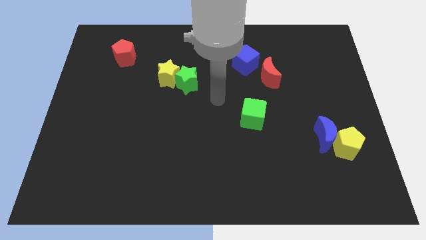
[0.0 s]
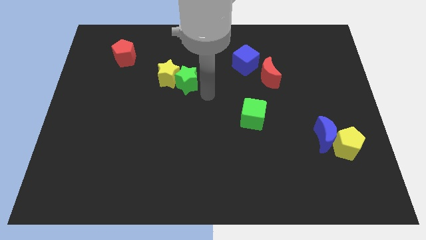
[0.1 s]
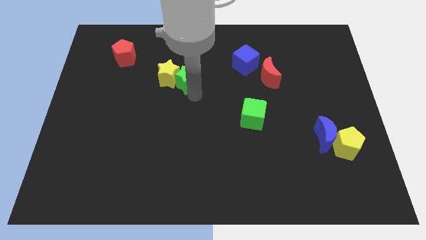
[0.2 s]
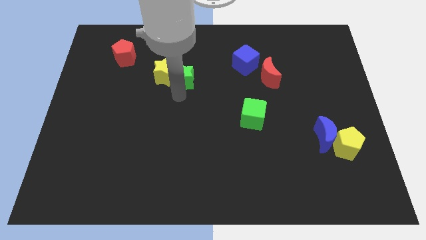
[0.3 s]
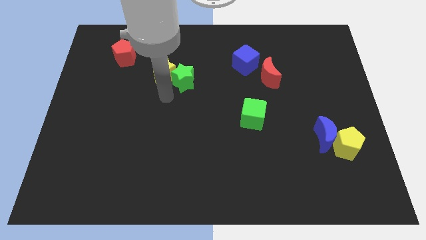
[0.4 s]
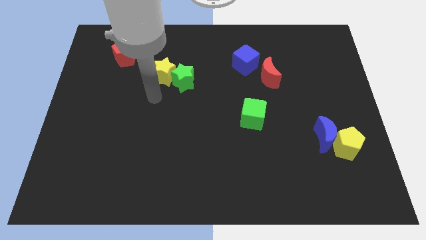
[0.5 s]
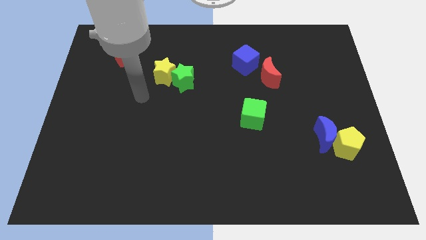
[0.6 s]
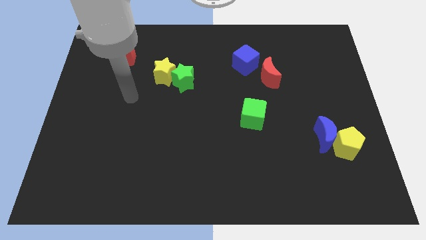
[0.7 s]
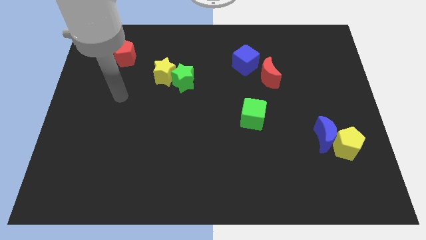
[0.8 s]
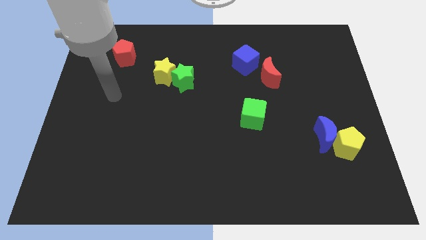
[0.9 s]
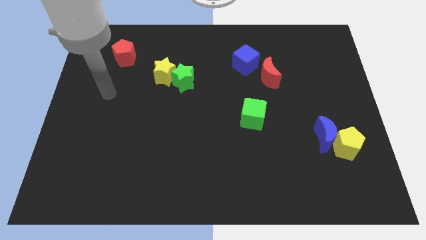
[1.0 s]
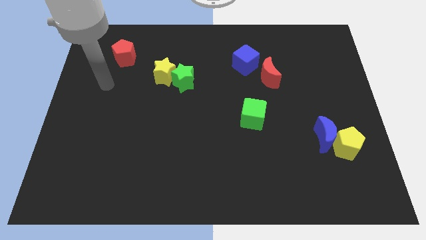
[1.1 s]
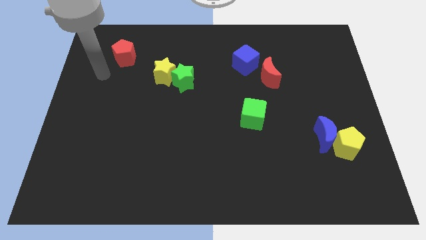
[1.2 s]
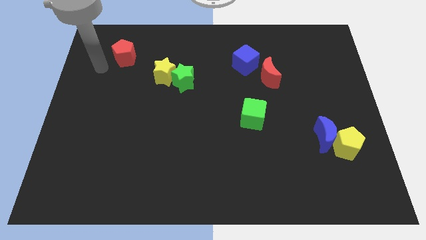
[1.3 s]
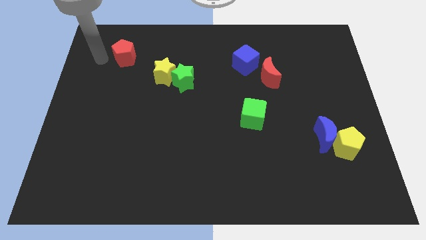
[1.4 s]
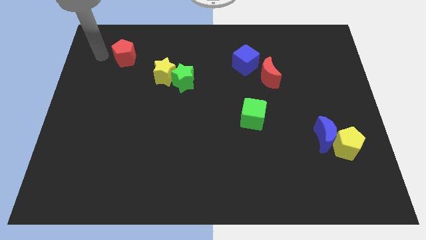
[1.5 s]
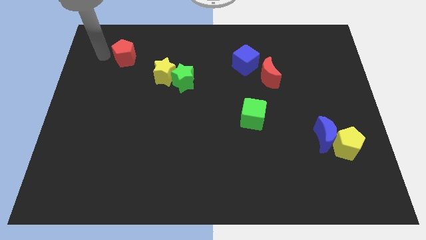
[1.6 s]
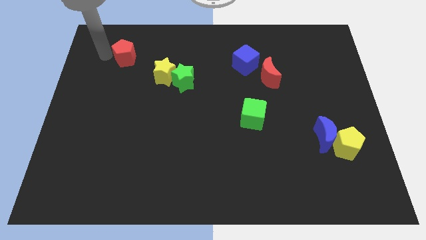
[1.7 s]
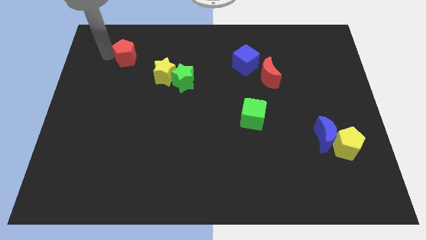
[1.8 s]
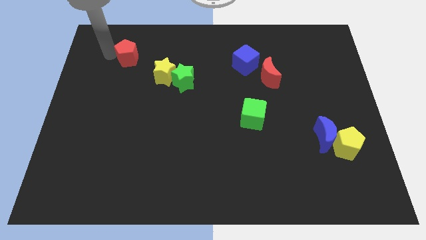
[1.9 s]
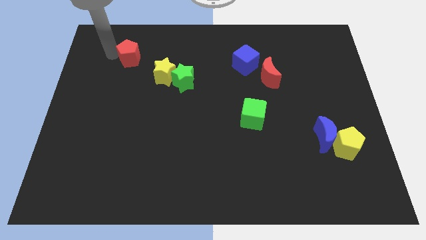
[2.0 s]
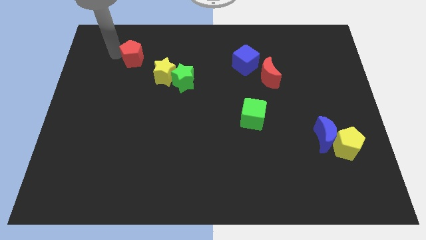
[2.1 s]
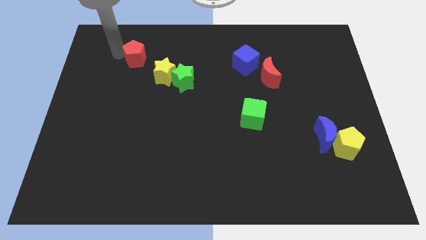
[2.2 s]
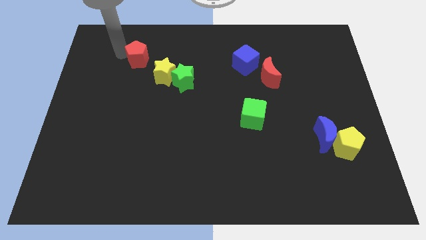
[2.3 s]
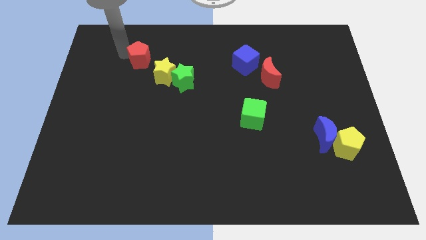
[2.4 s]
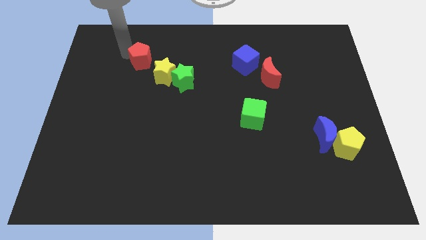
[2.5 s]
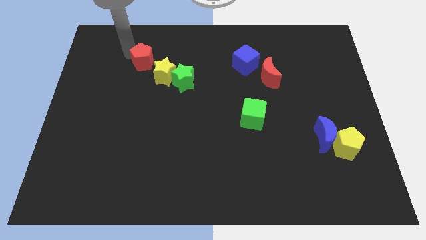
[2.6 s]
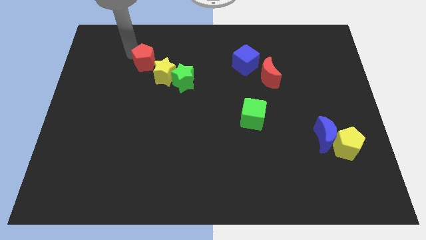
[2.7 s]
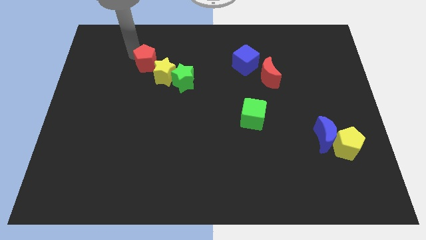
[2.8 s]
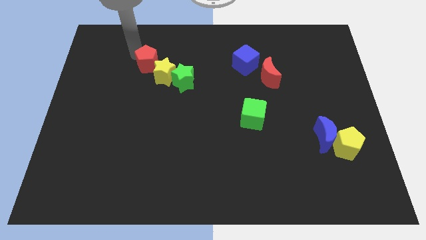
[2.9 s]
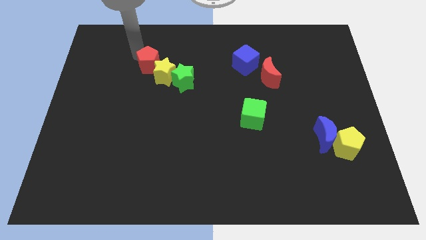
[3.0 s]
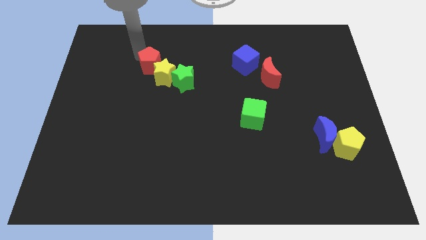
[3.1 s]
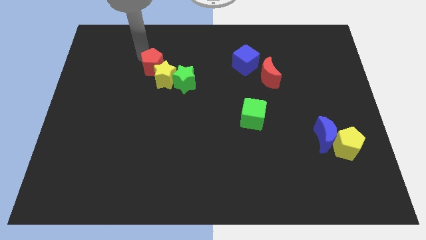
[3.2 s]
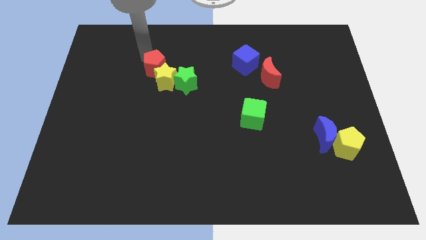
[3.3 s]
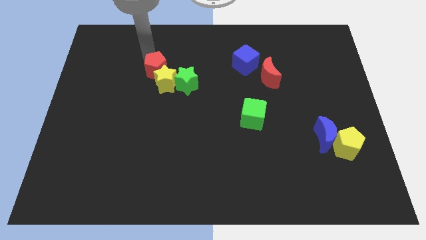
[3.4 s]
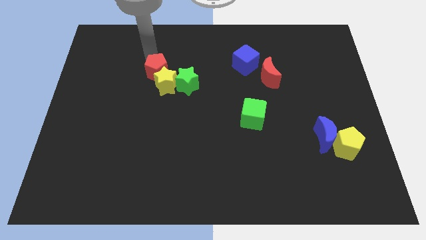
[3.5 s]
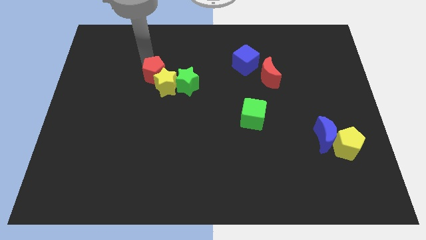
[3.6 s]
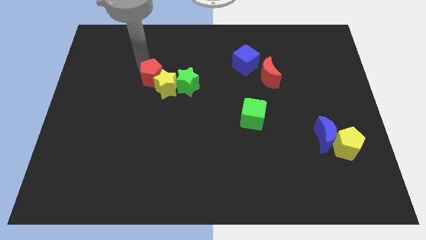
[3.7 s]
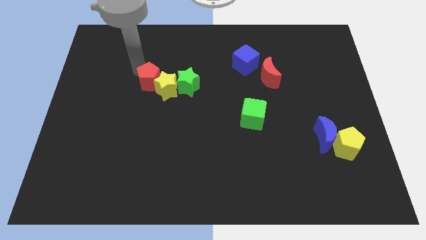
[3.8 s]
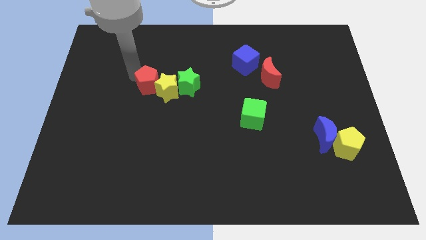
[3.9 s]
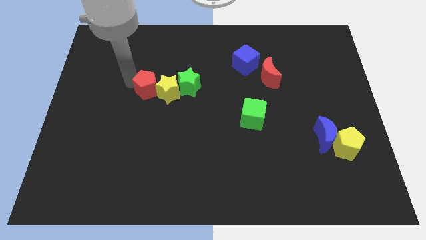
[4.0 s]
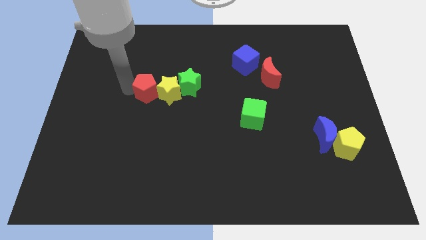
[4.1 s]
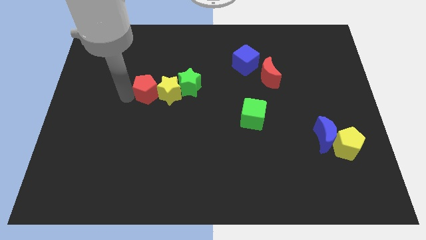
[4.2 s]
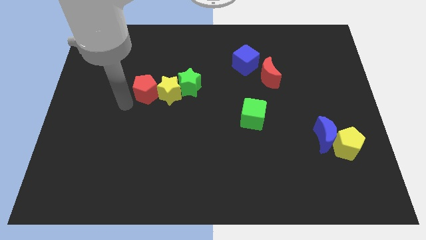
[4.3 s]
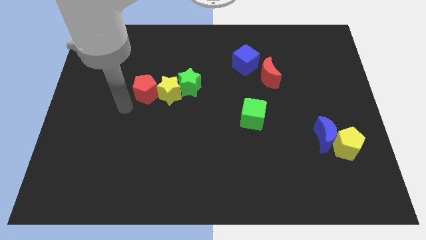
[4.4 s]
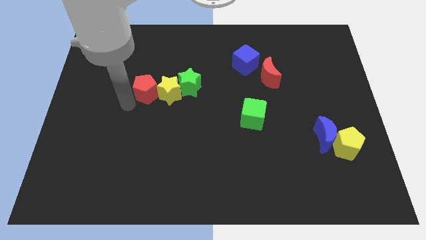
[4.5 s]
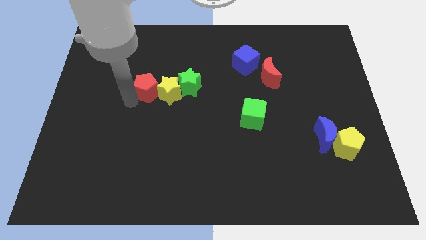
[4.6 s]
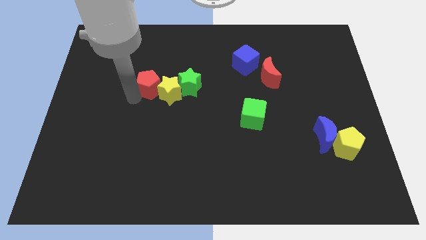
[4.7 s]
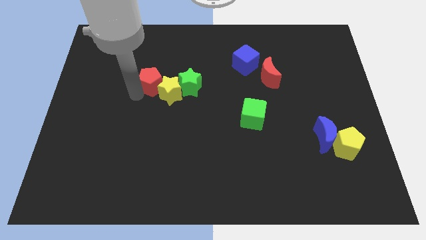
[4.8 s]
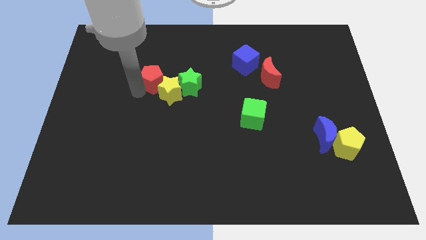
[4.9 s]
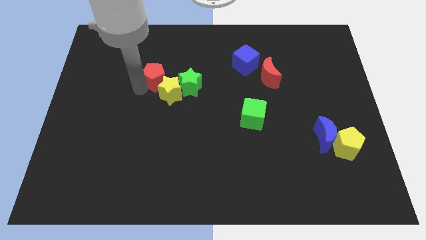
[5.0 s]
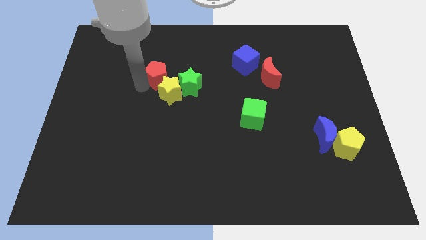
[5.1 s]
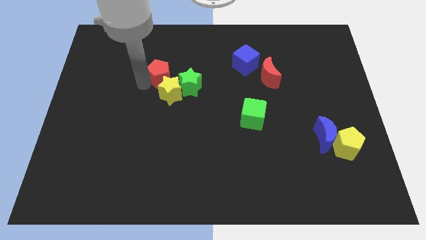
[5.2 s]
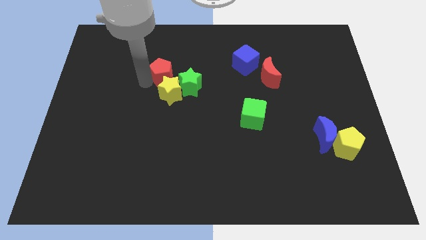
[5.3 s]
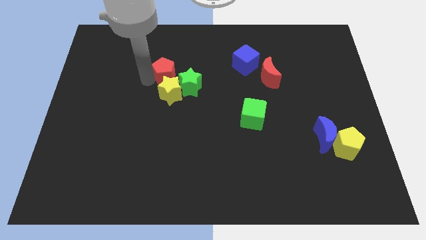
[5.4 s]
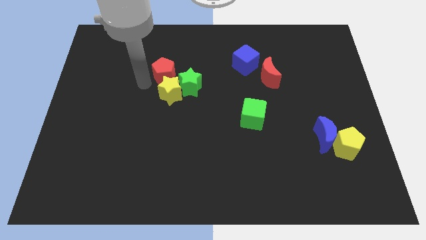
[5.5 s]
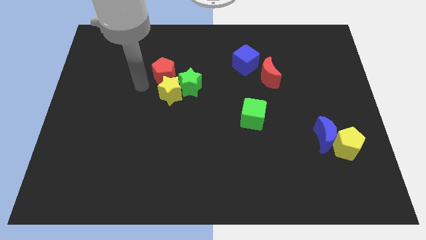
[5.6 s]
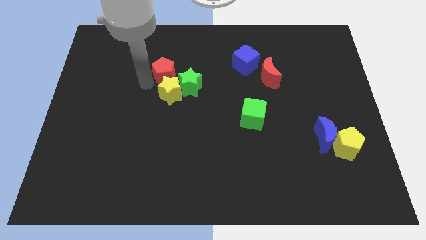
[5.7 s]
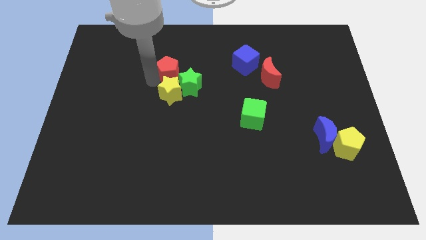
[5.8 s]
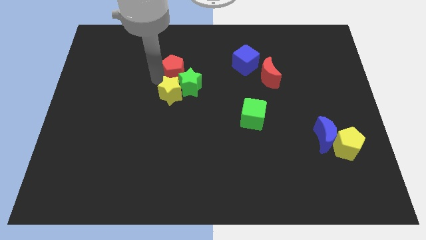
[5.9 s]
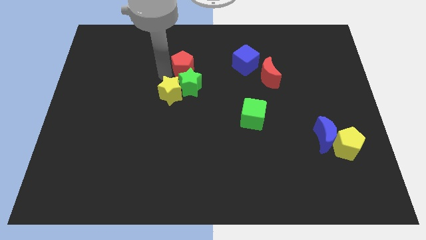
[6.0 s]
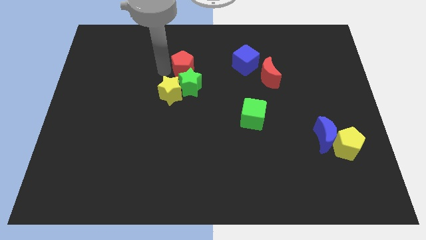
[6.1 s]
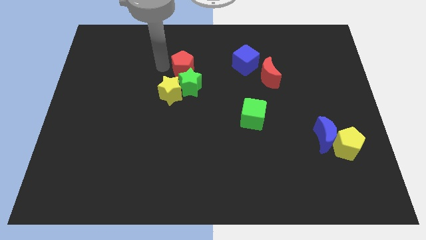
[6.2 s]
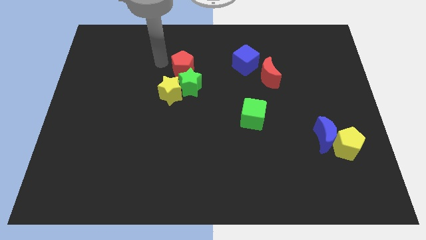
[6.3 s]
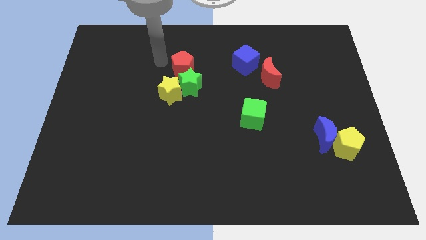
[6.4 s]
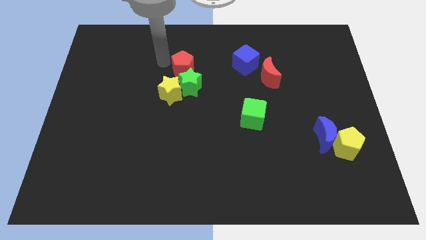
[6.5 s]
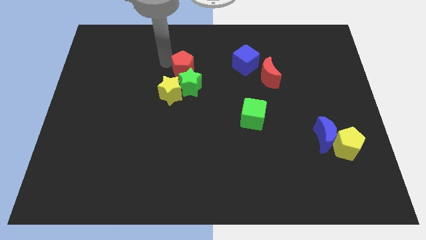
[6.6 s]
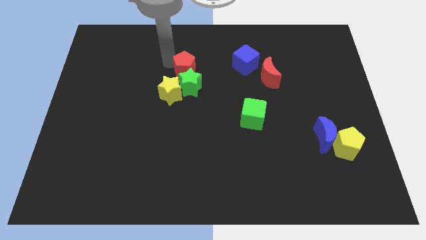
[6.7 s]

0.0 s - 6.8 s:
move the red pentagon to the middle of the board
